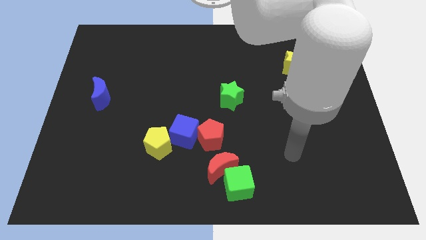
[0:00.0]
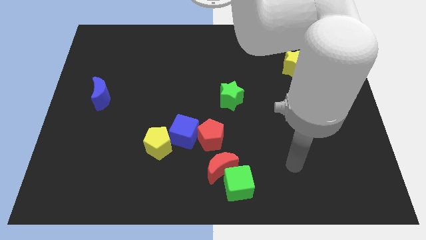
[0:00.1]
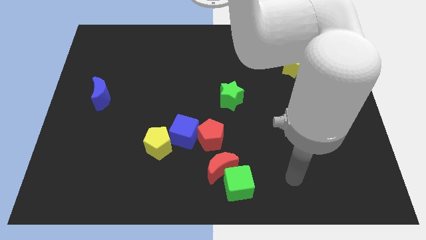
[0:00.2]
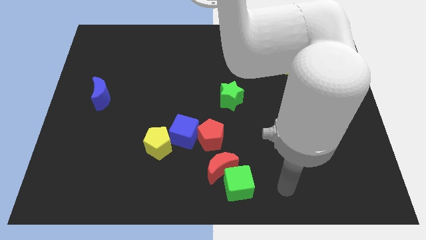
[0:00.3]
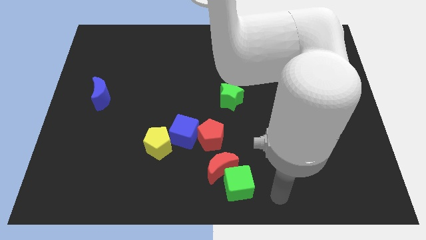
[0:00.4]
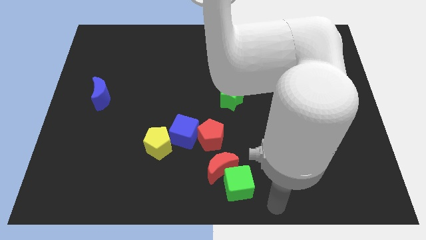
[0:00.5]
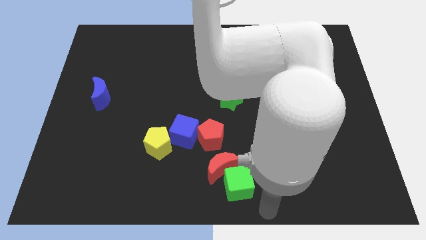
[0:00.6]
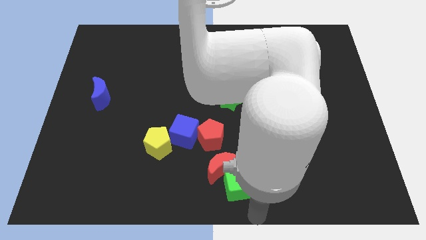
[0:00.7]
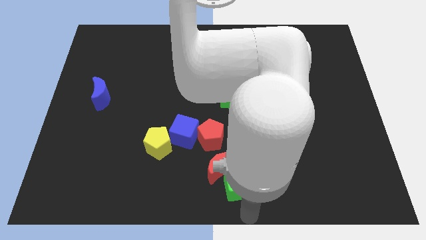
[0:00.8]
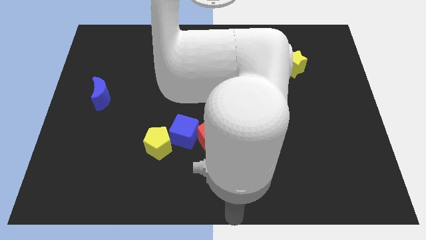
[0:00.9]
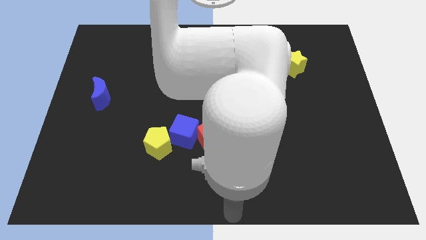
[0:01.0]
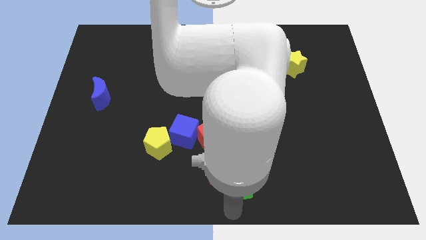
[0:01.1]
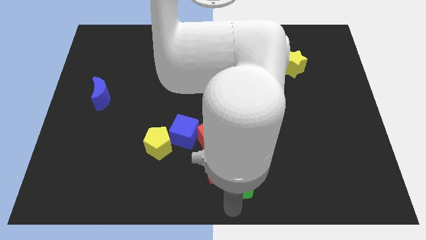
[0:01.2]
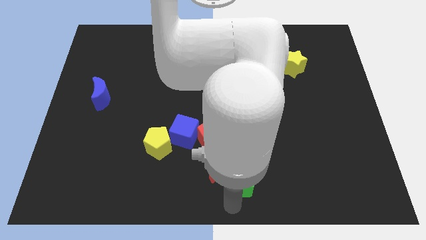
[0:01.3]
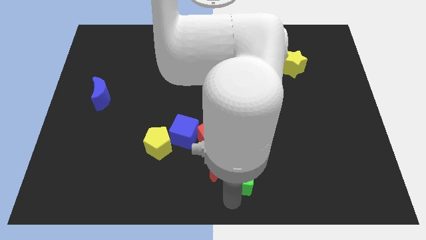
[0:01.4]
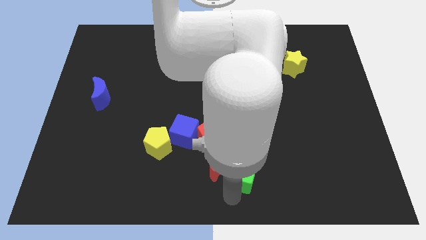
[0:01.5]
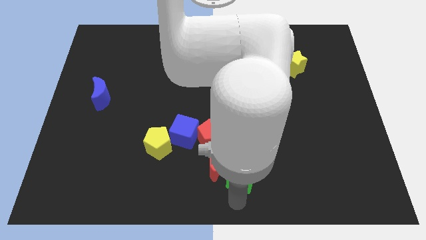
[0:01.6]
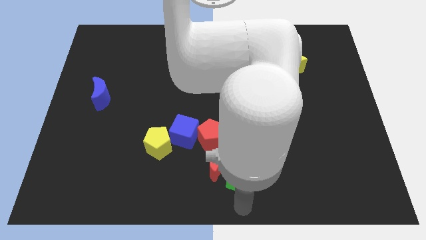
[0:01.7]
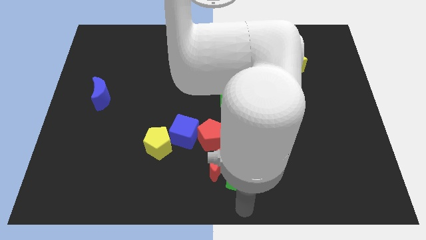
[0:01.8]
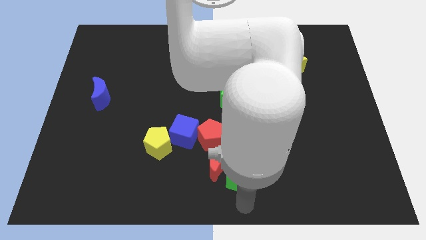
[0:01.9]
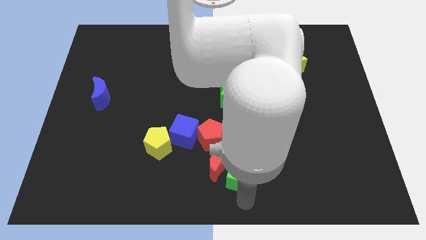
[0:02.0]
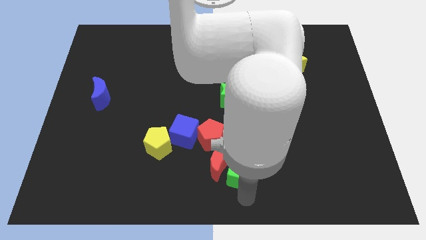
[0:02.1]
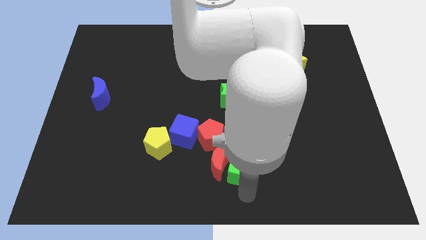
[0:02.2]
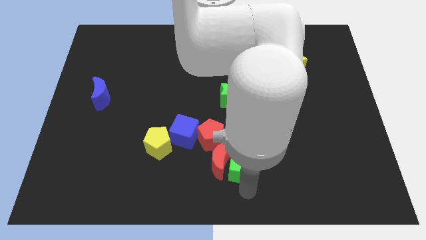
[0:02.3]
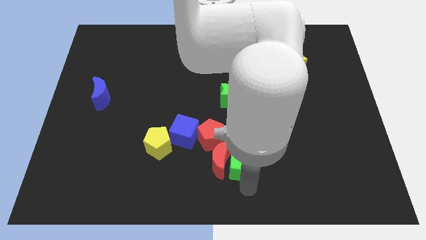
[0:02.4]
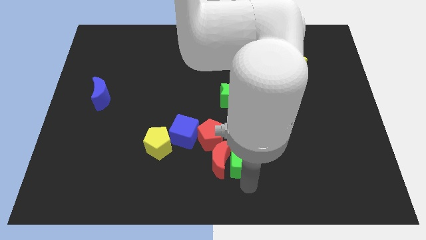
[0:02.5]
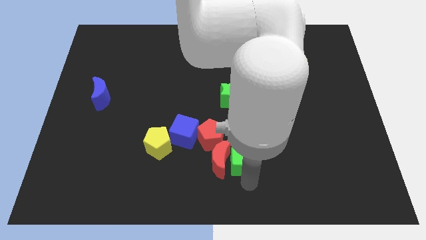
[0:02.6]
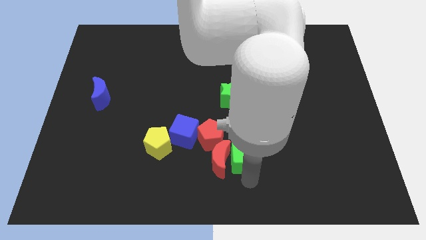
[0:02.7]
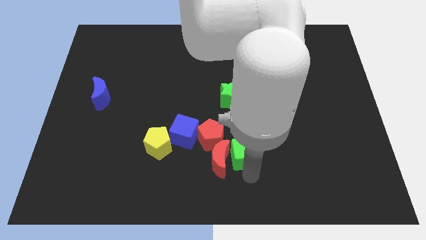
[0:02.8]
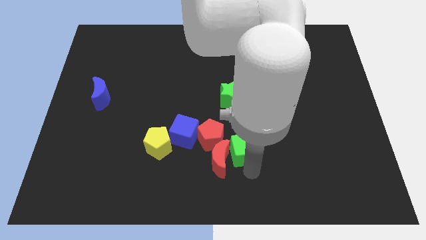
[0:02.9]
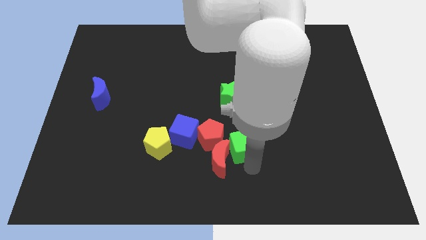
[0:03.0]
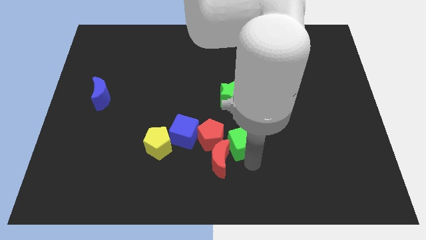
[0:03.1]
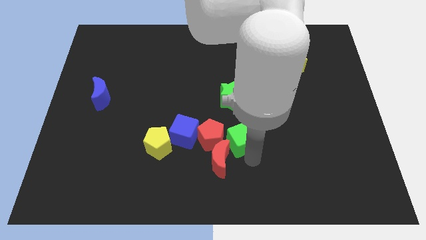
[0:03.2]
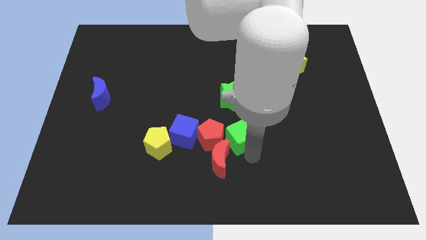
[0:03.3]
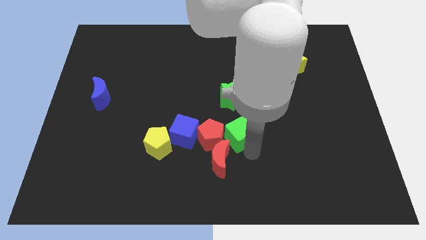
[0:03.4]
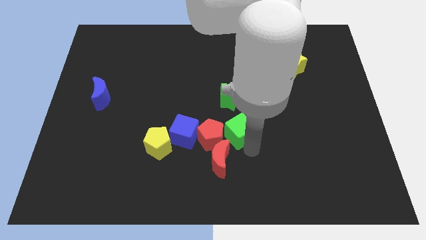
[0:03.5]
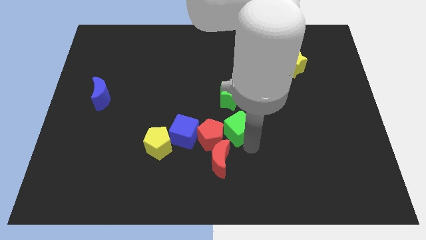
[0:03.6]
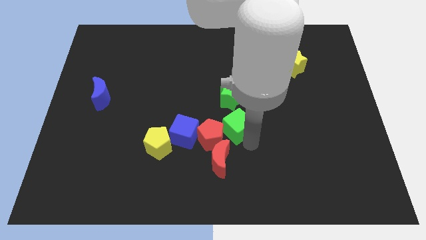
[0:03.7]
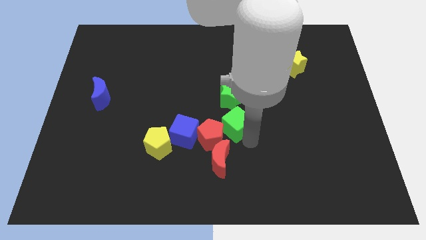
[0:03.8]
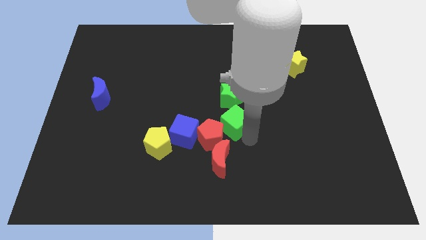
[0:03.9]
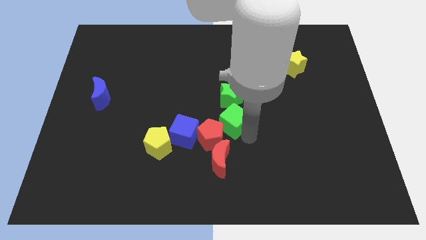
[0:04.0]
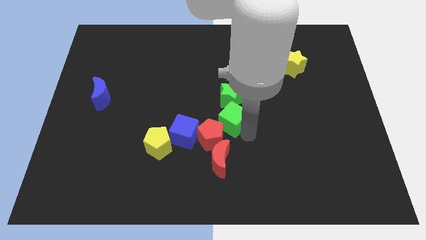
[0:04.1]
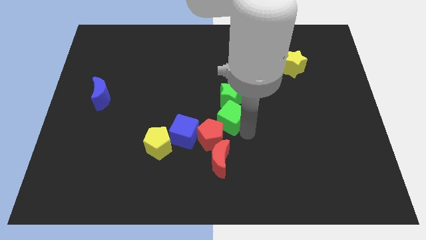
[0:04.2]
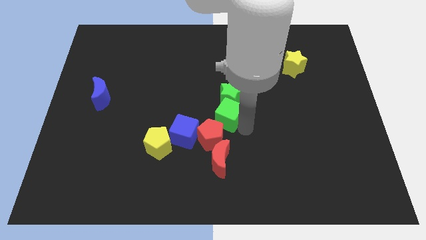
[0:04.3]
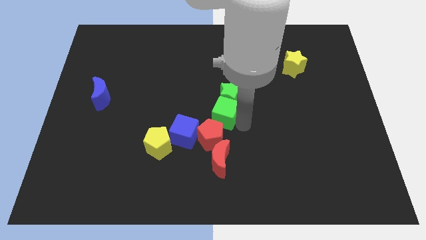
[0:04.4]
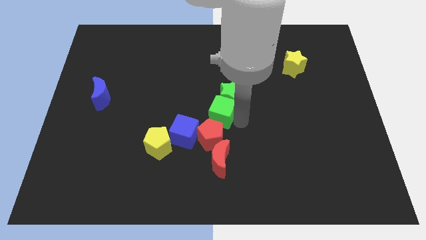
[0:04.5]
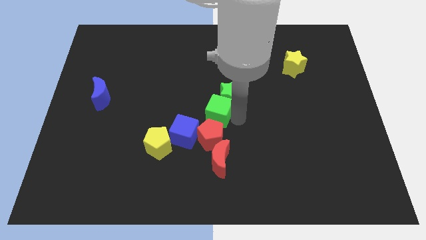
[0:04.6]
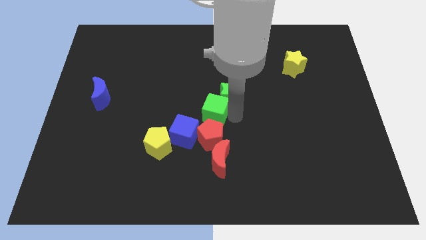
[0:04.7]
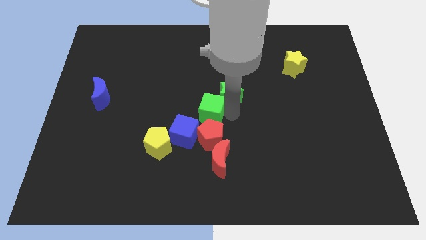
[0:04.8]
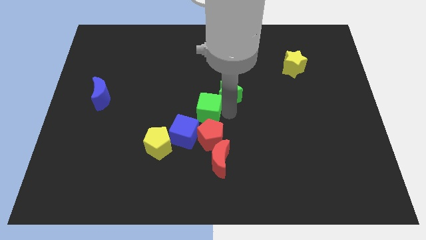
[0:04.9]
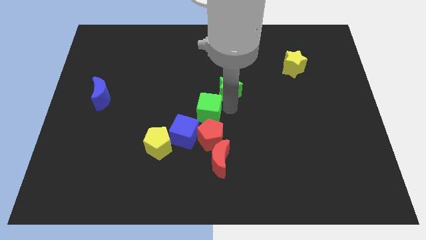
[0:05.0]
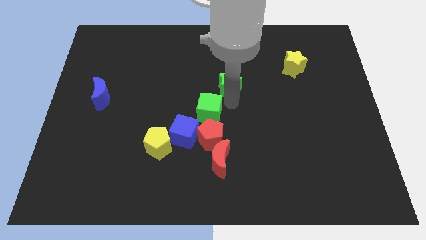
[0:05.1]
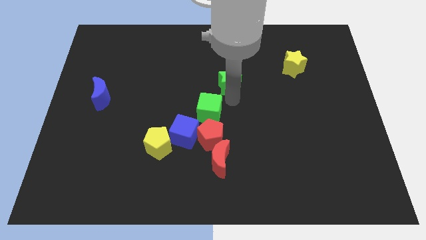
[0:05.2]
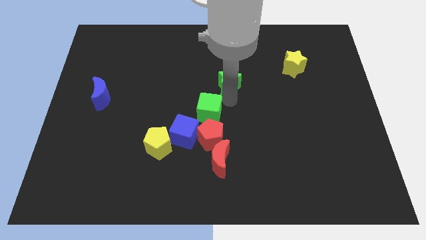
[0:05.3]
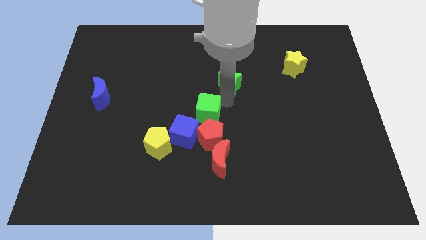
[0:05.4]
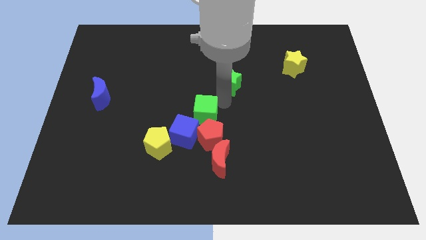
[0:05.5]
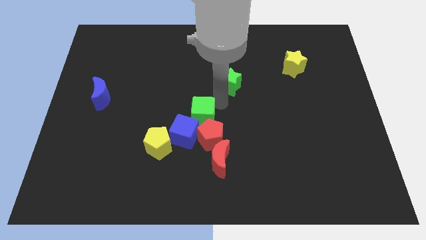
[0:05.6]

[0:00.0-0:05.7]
slide the green cube diagonally up and to the right of the yellow pentagon

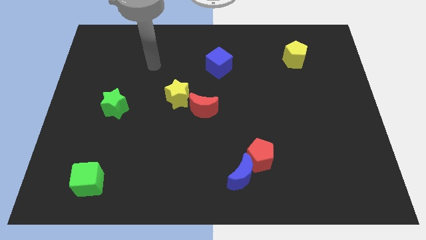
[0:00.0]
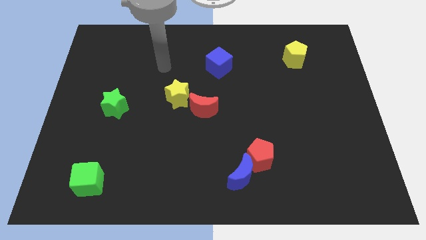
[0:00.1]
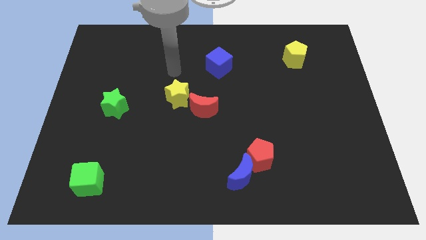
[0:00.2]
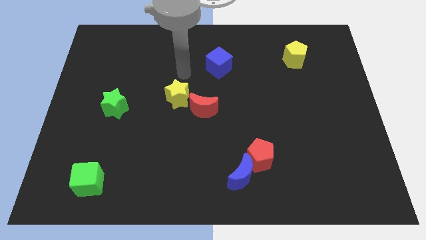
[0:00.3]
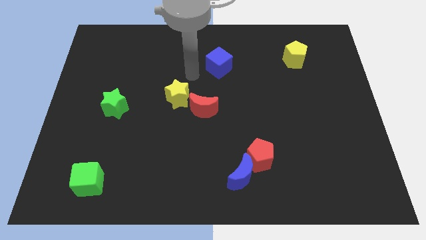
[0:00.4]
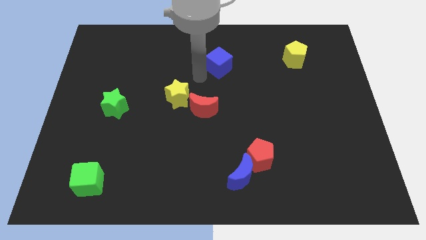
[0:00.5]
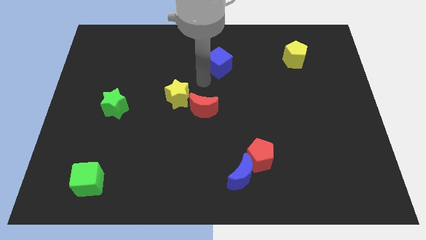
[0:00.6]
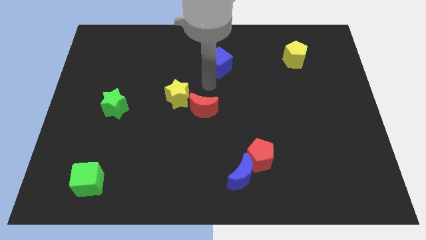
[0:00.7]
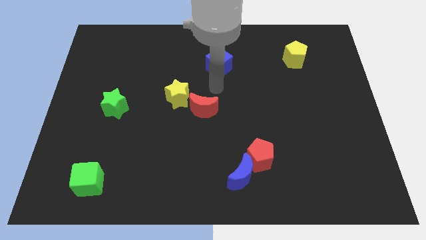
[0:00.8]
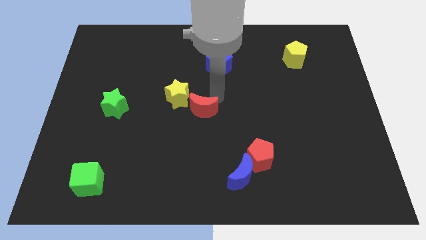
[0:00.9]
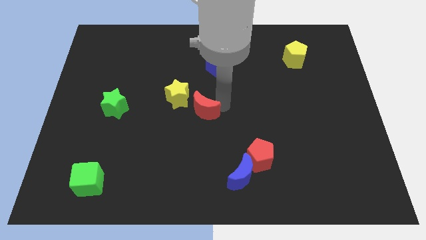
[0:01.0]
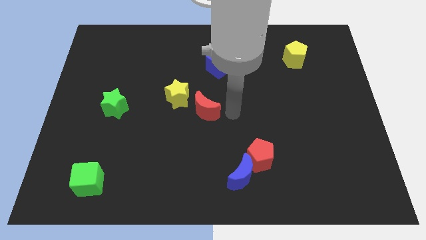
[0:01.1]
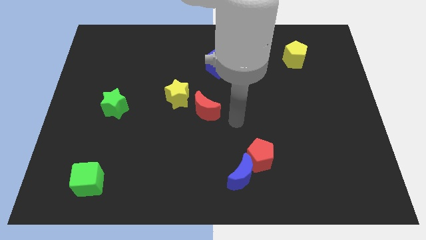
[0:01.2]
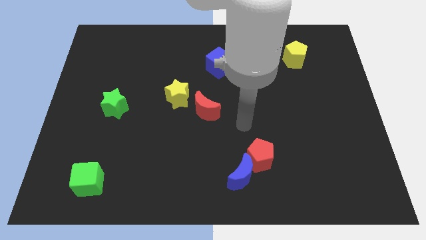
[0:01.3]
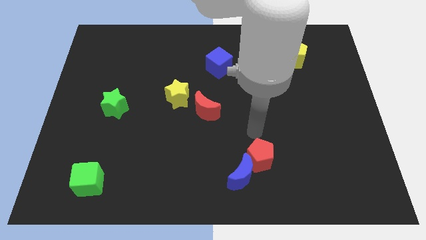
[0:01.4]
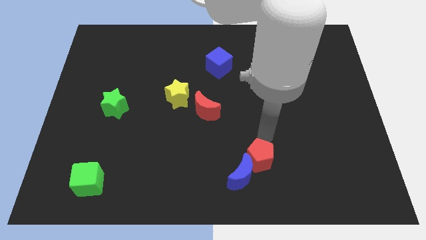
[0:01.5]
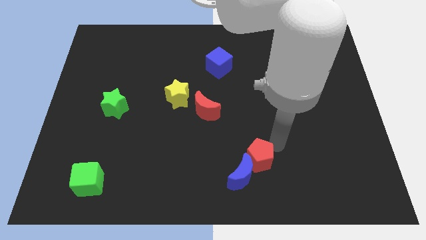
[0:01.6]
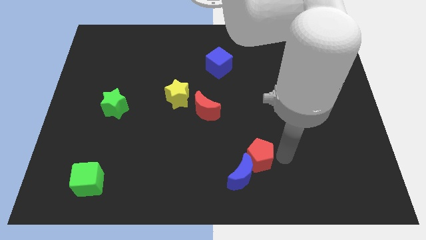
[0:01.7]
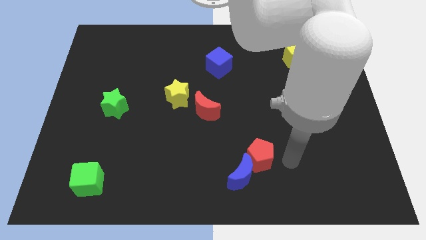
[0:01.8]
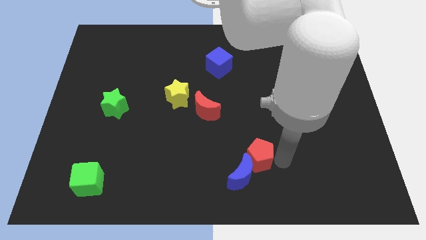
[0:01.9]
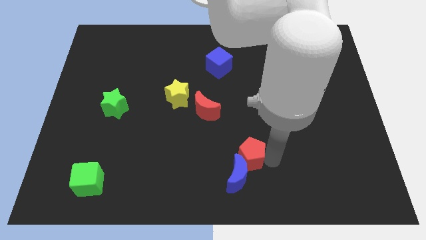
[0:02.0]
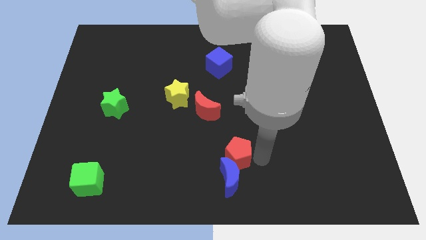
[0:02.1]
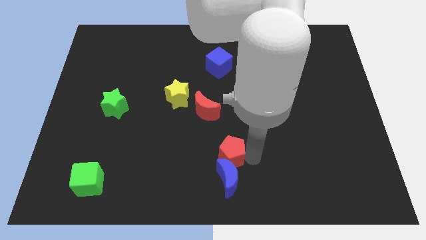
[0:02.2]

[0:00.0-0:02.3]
move the red pentagon diagonally up and to the left of the blue moon
